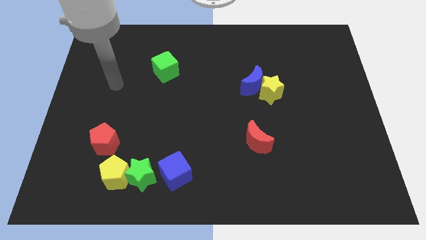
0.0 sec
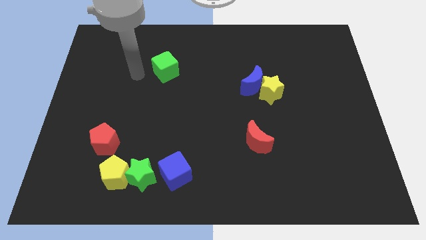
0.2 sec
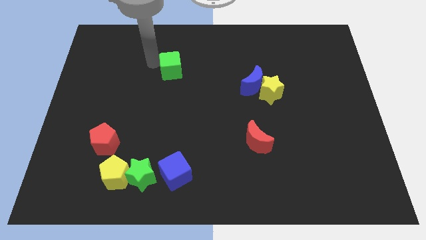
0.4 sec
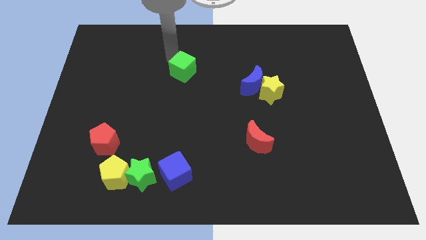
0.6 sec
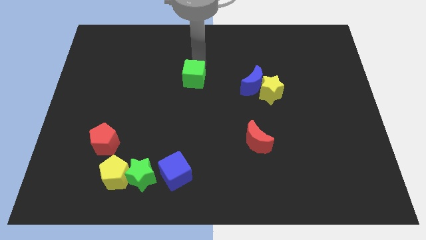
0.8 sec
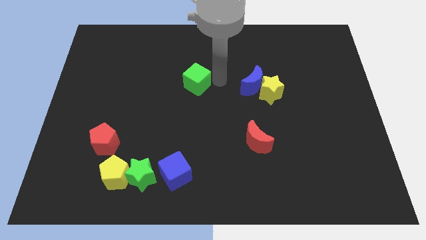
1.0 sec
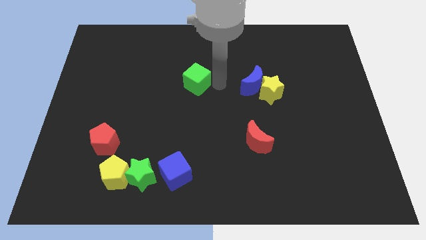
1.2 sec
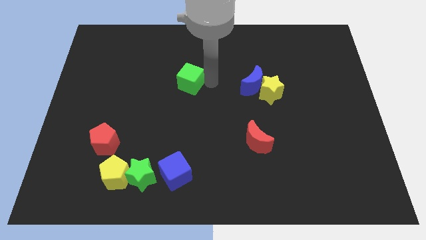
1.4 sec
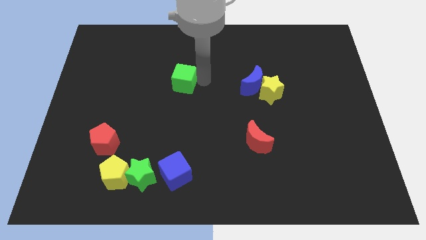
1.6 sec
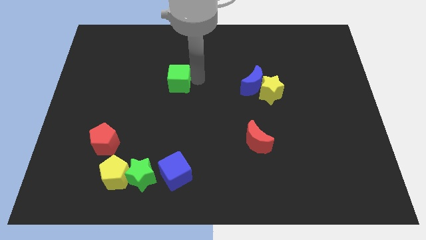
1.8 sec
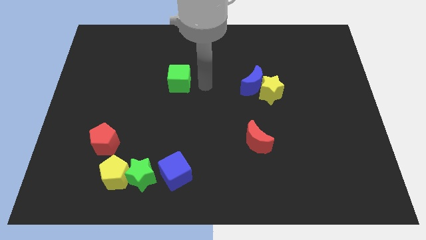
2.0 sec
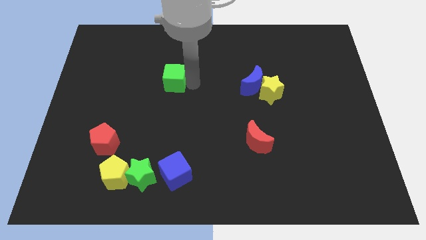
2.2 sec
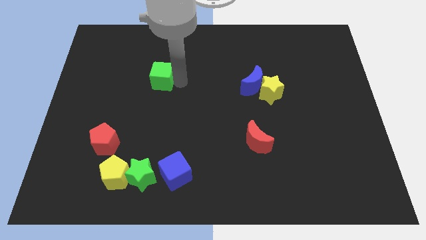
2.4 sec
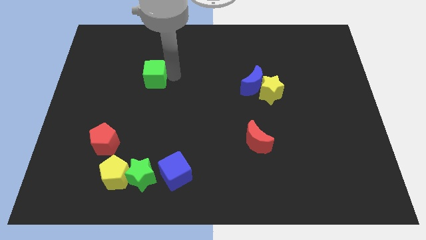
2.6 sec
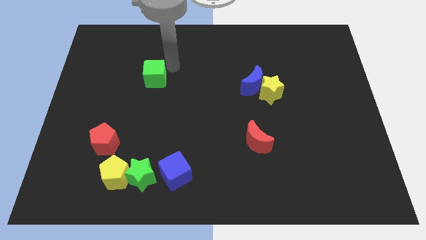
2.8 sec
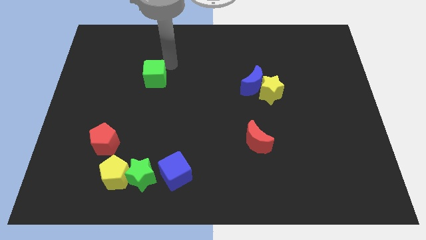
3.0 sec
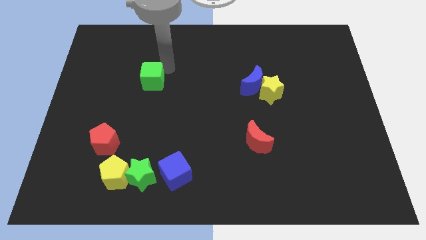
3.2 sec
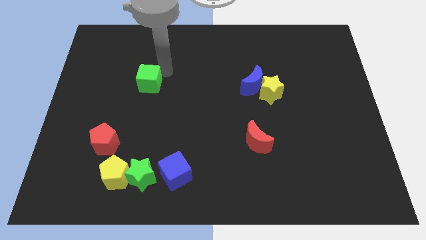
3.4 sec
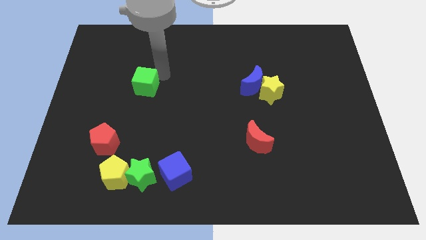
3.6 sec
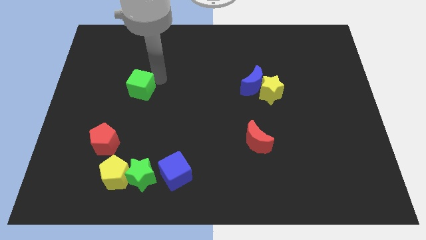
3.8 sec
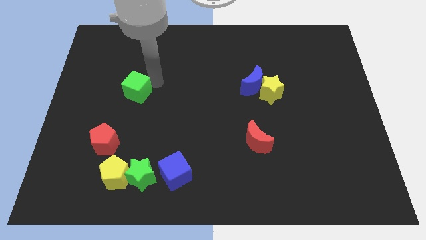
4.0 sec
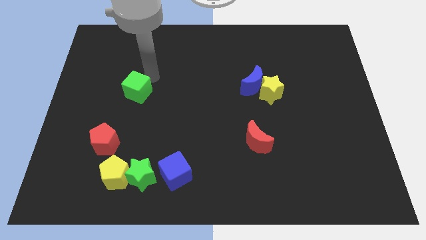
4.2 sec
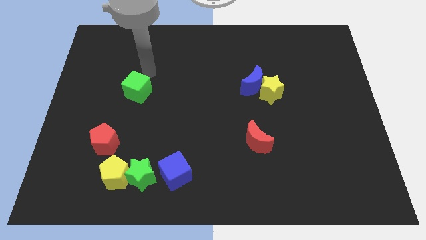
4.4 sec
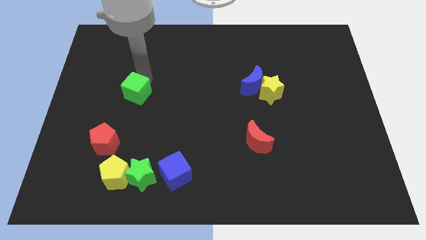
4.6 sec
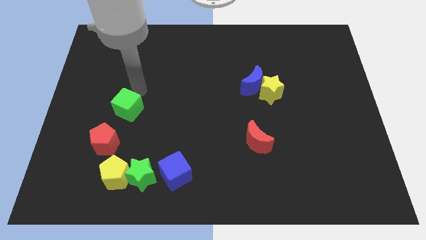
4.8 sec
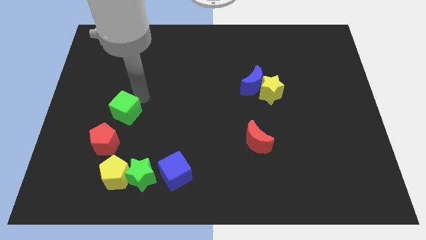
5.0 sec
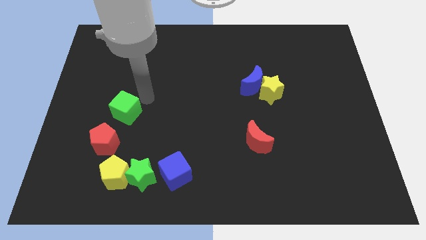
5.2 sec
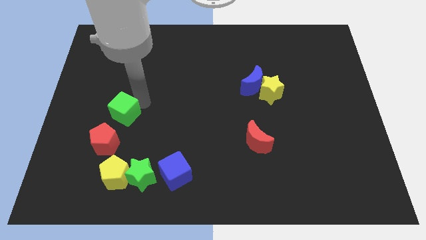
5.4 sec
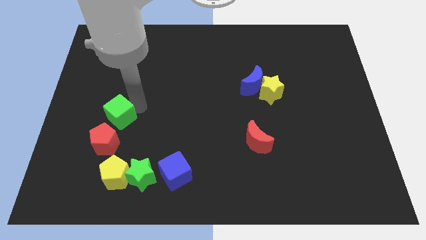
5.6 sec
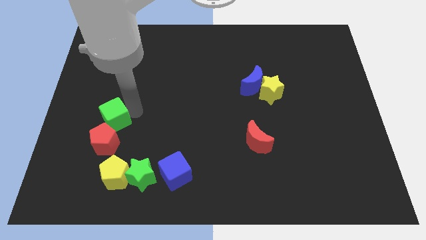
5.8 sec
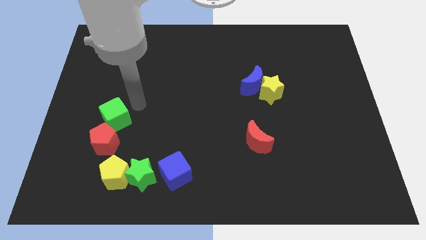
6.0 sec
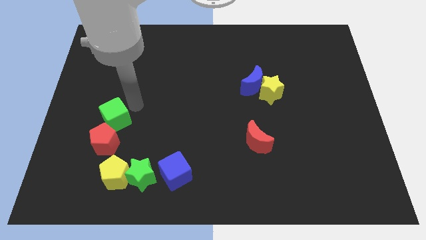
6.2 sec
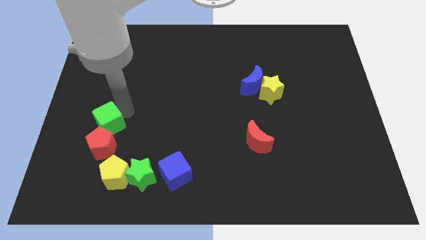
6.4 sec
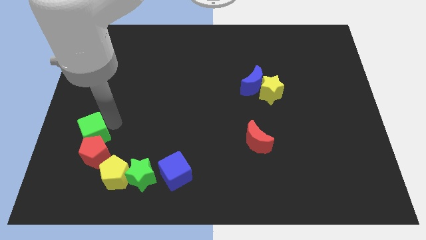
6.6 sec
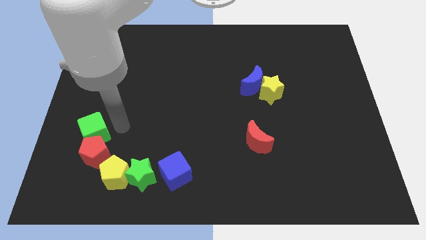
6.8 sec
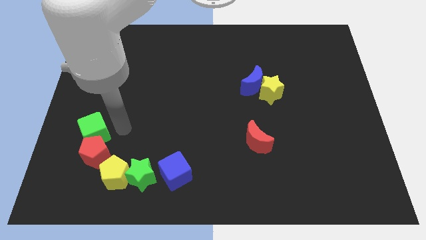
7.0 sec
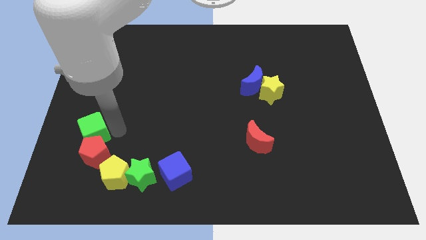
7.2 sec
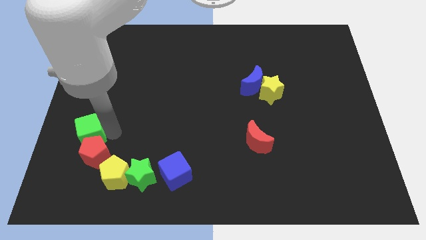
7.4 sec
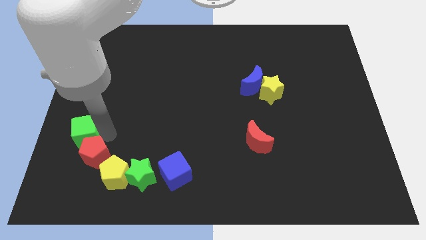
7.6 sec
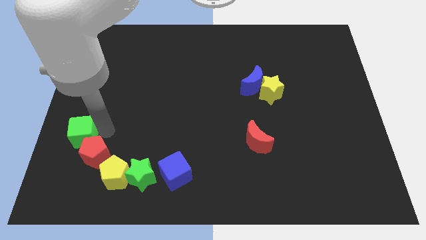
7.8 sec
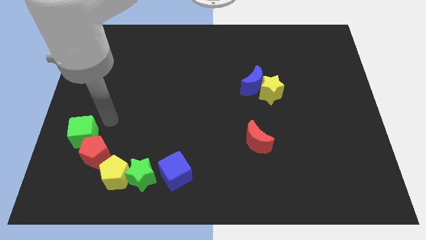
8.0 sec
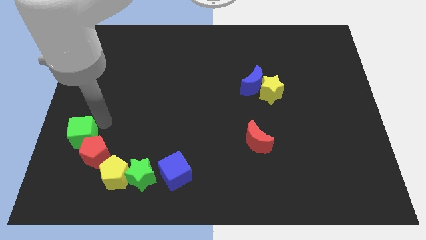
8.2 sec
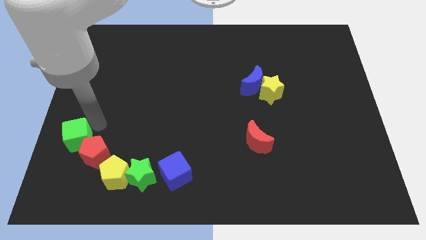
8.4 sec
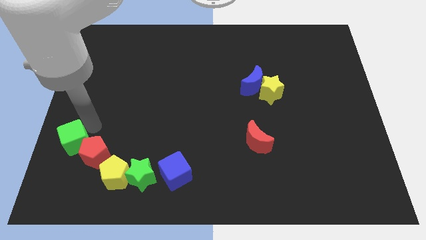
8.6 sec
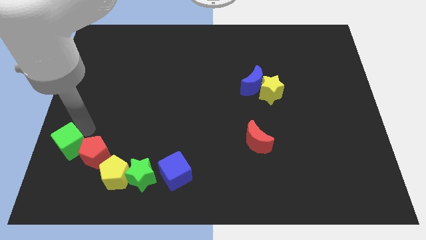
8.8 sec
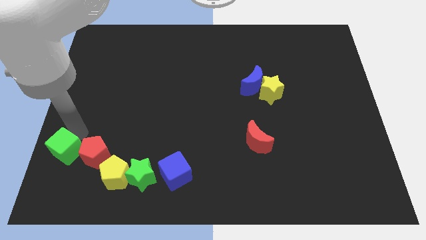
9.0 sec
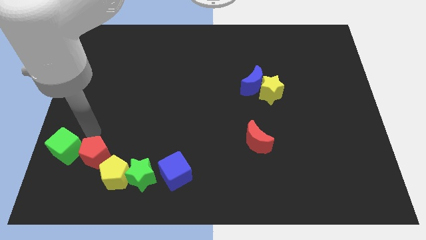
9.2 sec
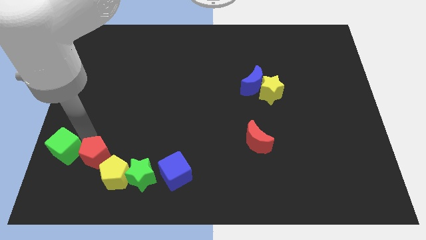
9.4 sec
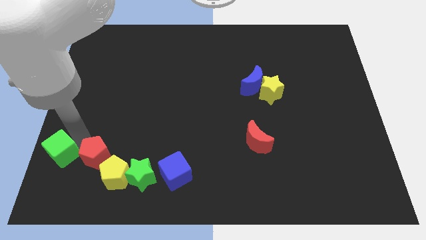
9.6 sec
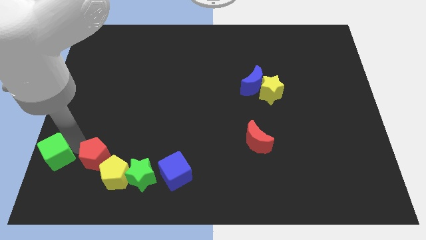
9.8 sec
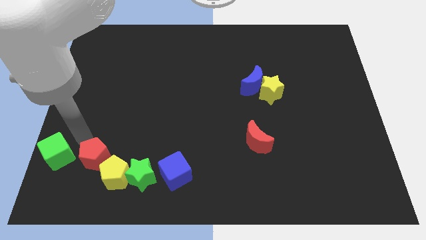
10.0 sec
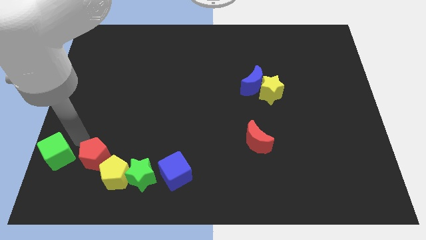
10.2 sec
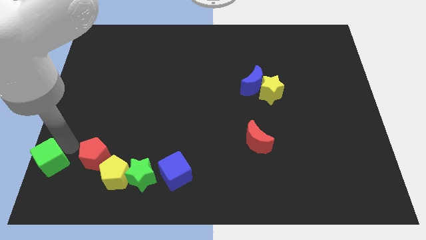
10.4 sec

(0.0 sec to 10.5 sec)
move the green cube to the bottom left corner

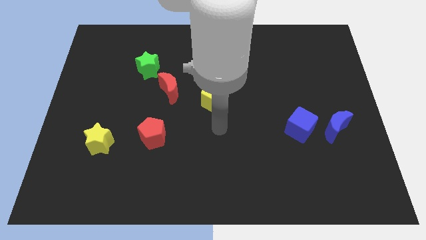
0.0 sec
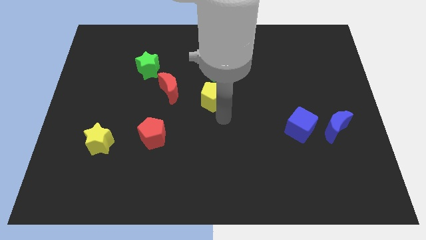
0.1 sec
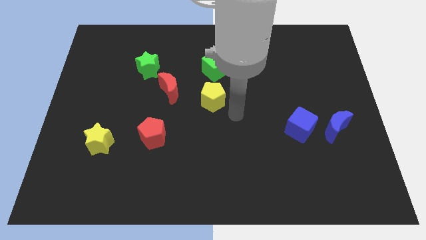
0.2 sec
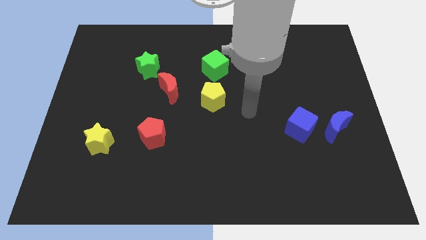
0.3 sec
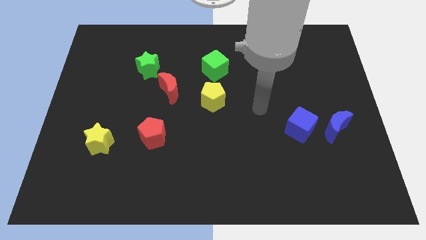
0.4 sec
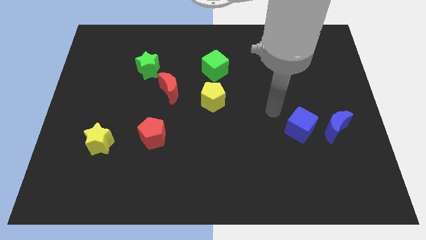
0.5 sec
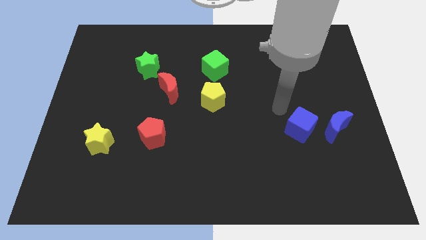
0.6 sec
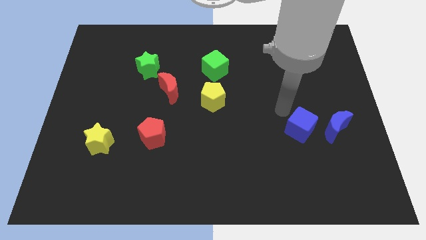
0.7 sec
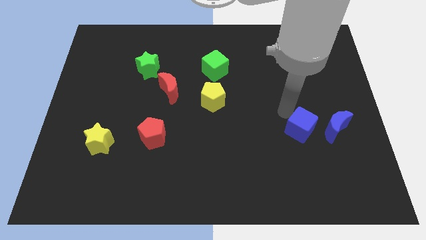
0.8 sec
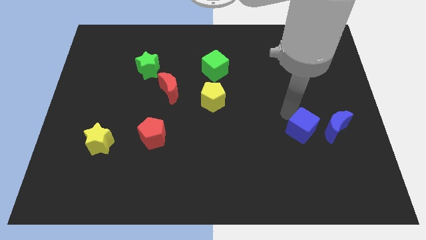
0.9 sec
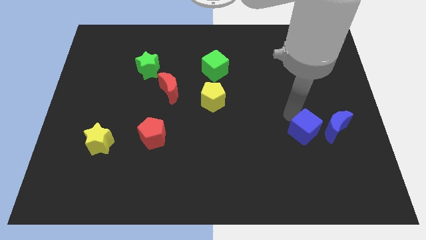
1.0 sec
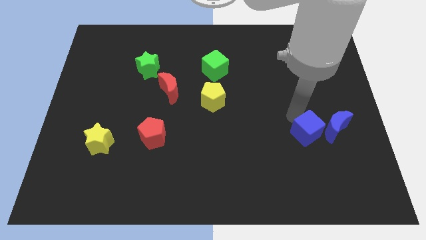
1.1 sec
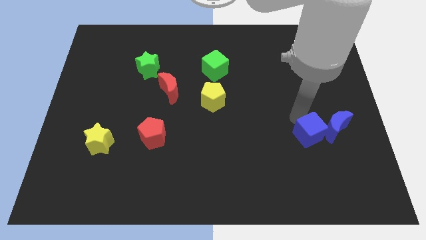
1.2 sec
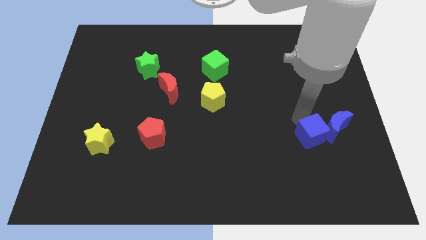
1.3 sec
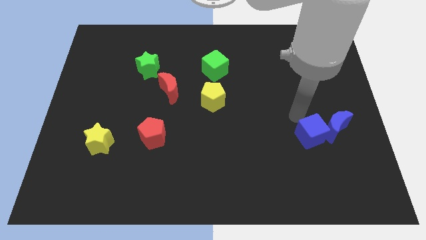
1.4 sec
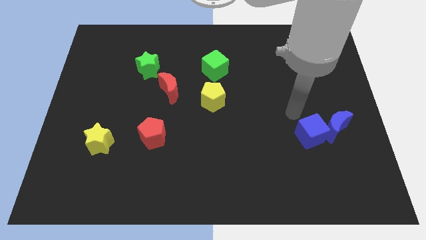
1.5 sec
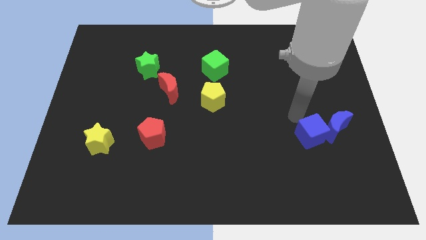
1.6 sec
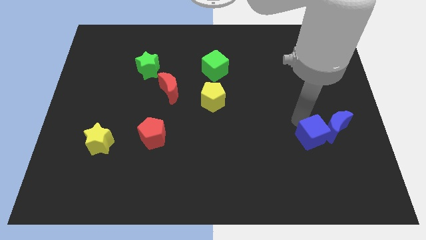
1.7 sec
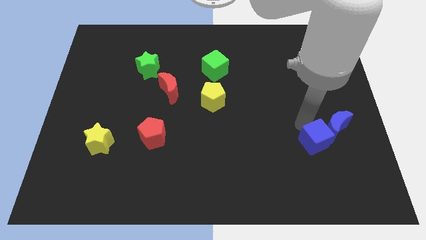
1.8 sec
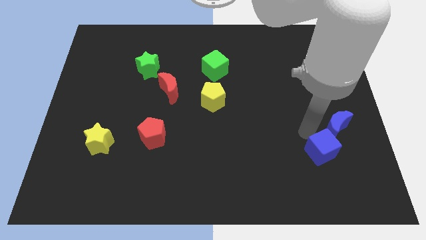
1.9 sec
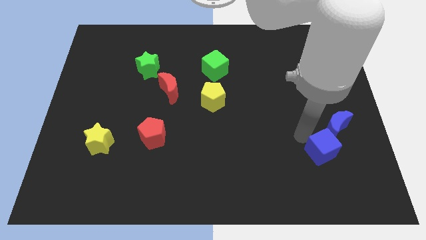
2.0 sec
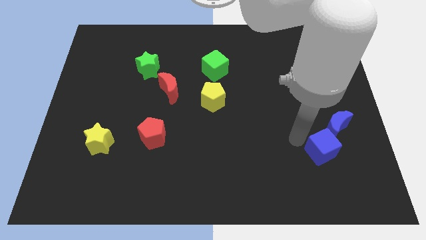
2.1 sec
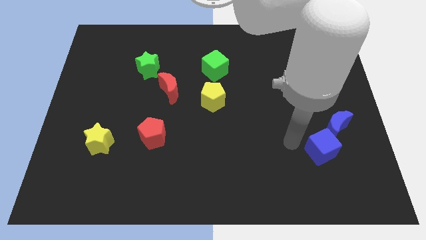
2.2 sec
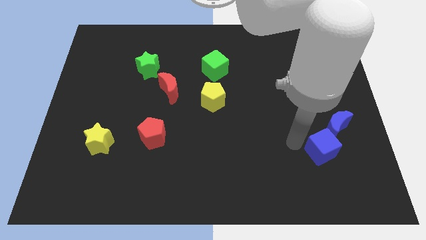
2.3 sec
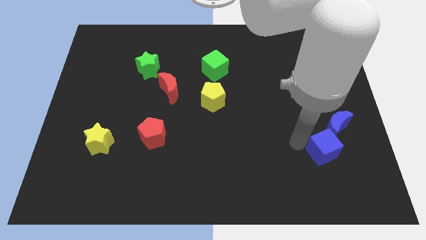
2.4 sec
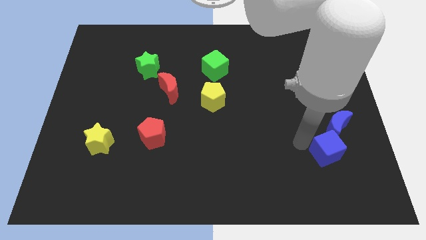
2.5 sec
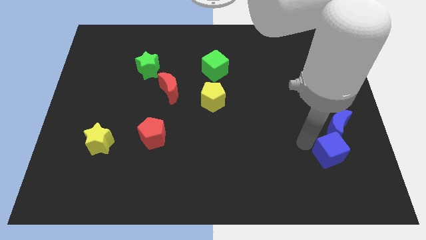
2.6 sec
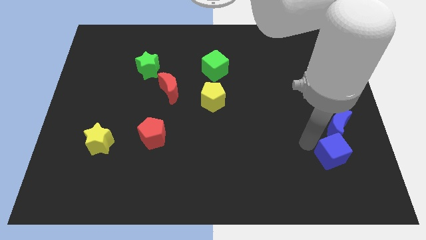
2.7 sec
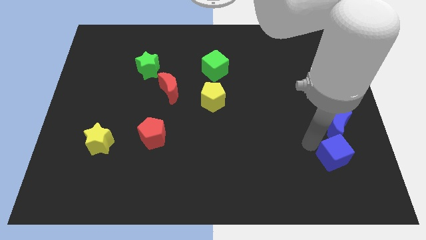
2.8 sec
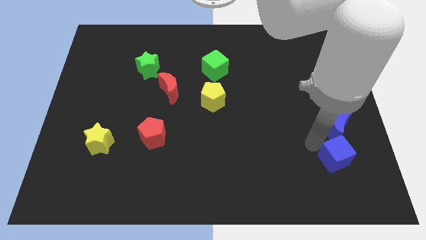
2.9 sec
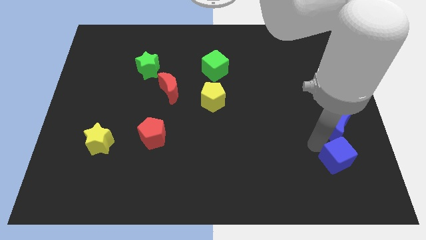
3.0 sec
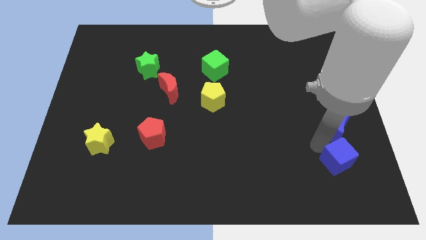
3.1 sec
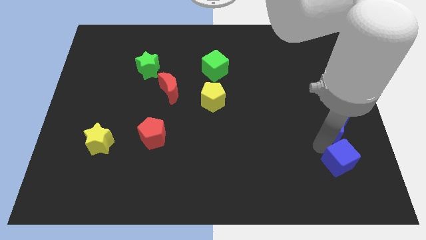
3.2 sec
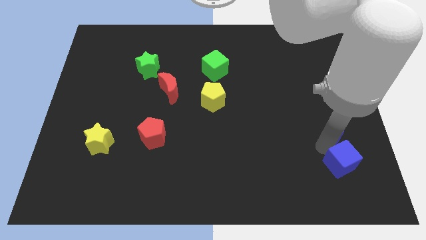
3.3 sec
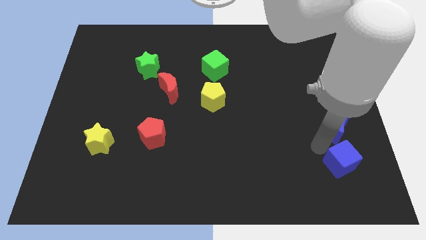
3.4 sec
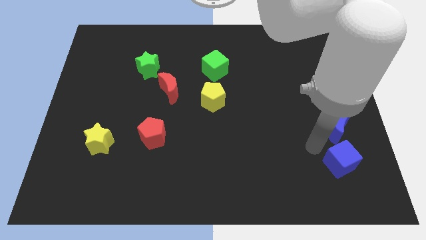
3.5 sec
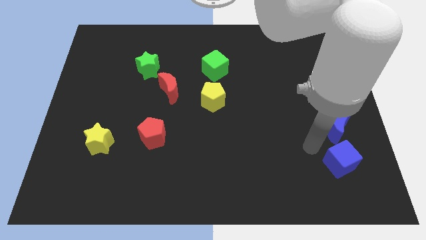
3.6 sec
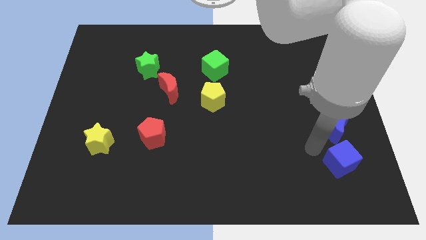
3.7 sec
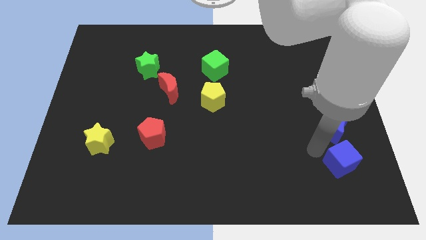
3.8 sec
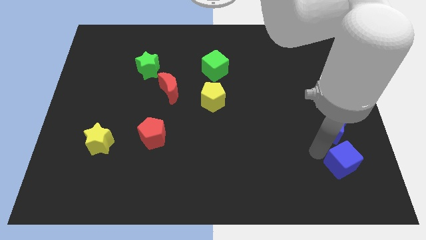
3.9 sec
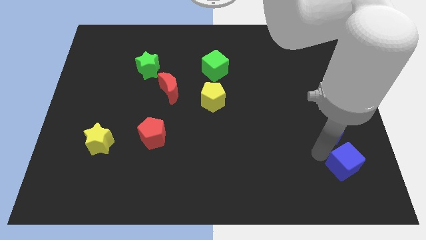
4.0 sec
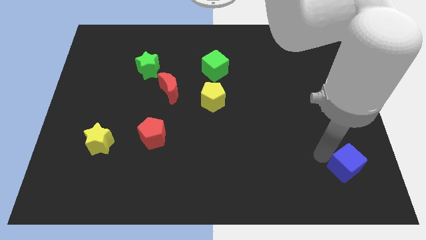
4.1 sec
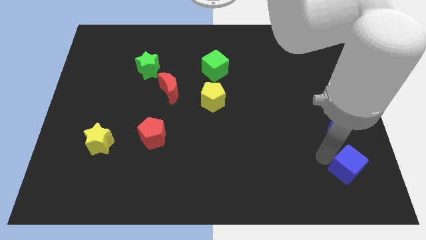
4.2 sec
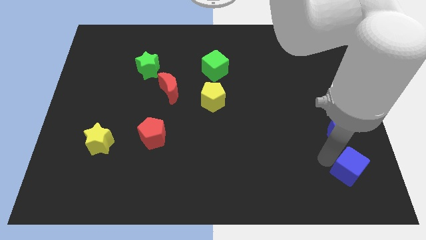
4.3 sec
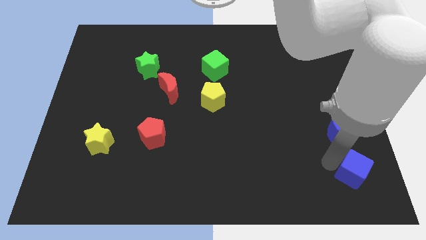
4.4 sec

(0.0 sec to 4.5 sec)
slide the blue cube to the bottom right
